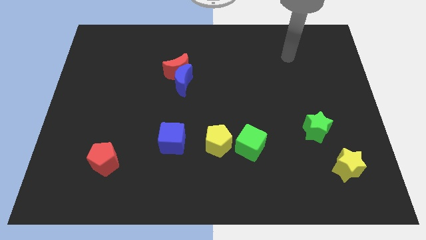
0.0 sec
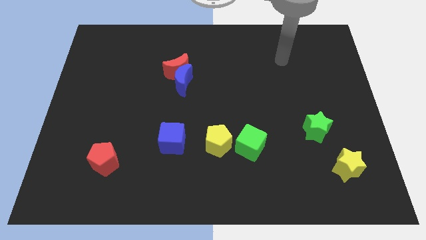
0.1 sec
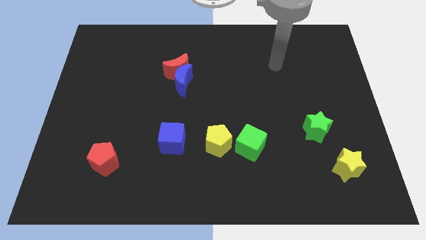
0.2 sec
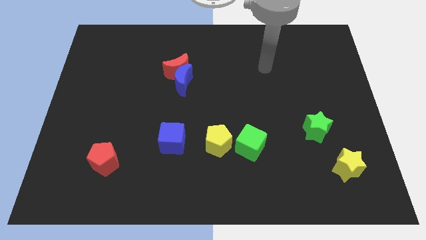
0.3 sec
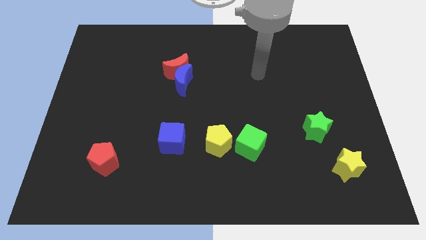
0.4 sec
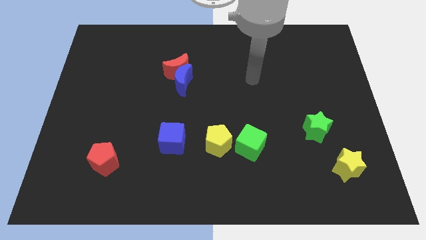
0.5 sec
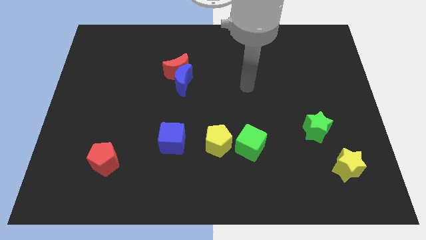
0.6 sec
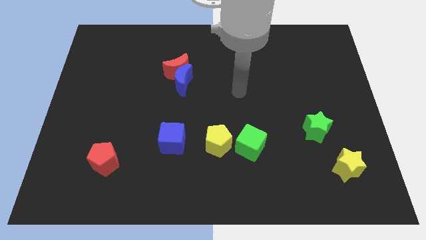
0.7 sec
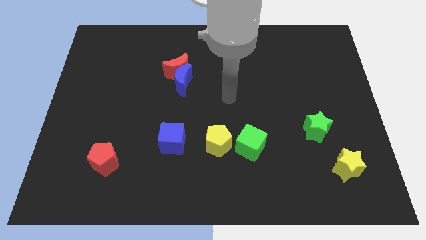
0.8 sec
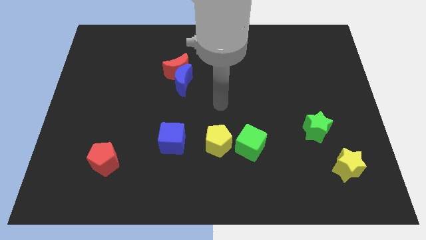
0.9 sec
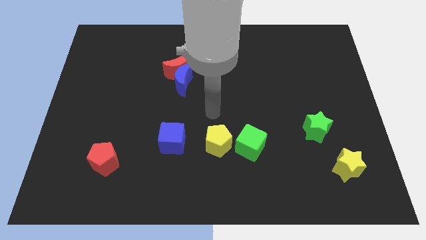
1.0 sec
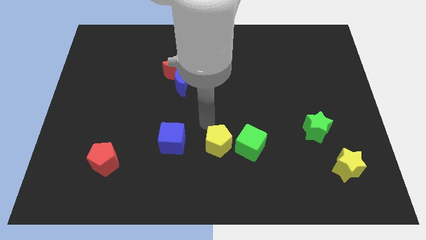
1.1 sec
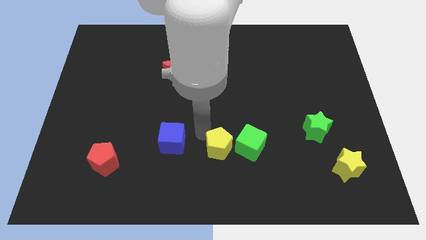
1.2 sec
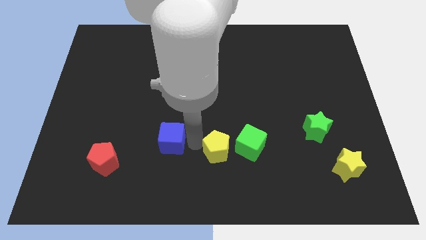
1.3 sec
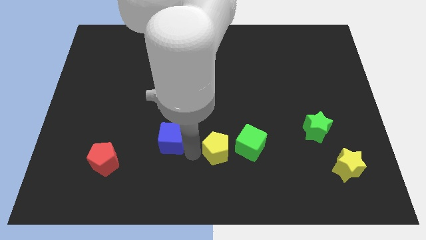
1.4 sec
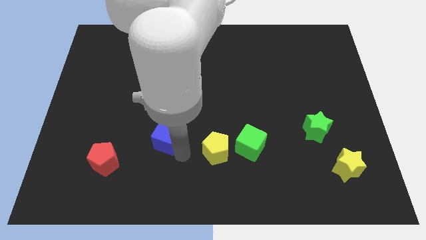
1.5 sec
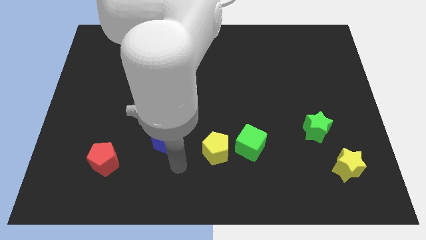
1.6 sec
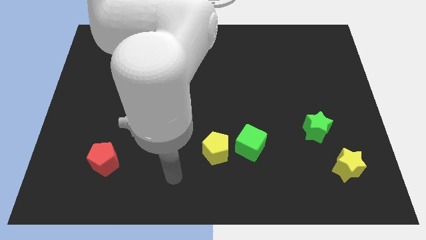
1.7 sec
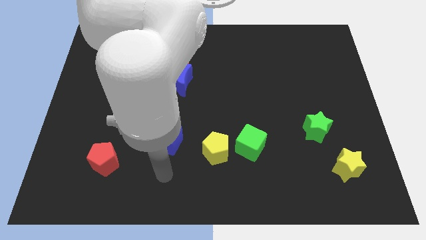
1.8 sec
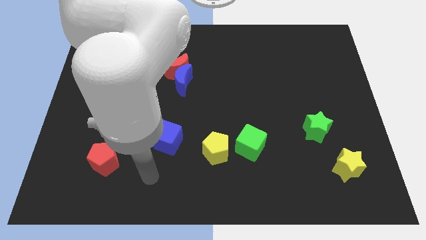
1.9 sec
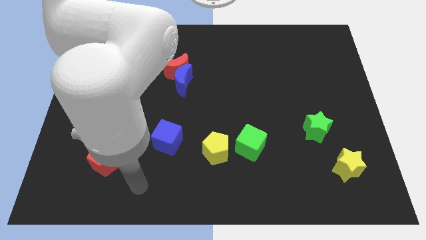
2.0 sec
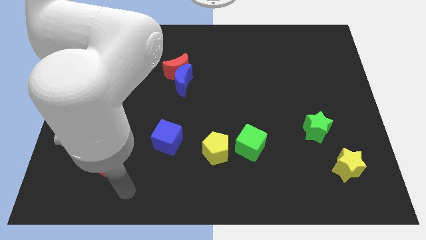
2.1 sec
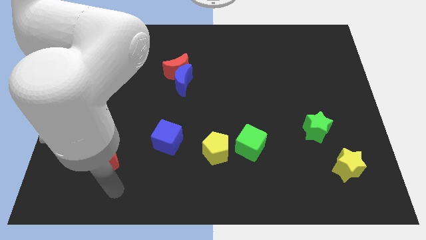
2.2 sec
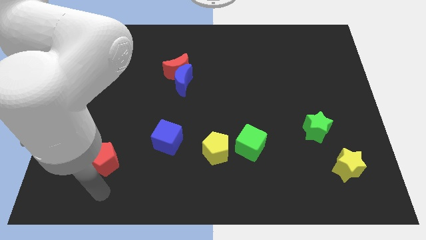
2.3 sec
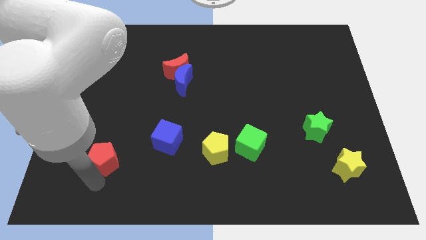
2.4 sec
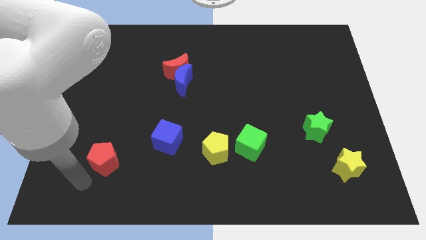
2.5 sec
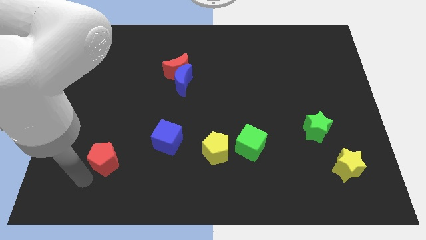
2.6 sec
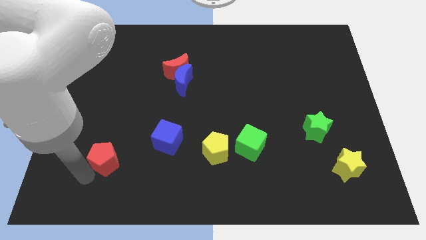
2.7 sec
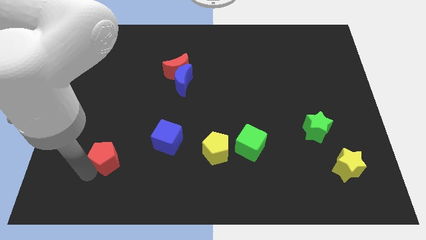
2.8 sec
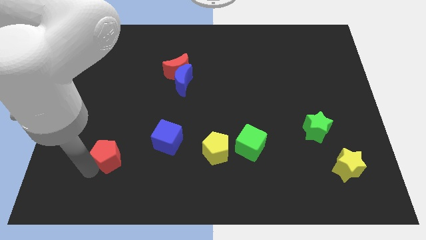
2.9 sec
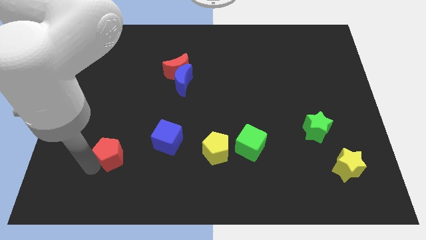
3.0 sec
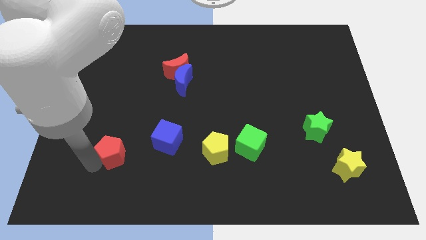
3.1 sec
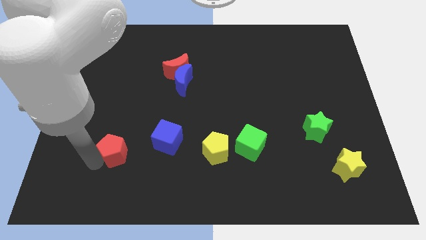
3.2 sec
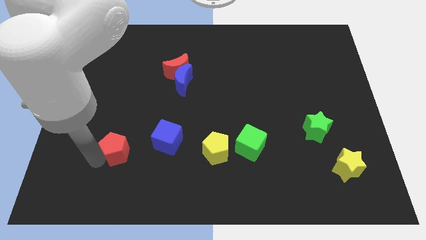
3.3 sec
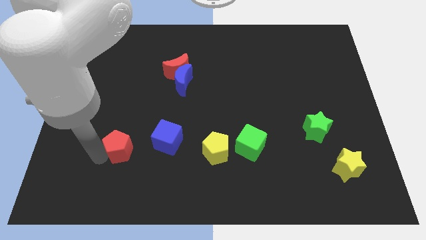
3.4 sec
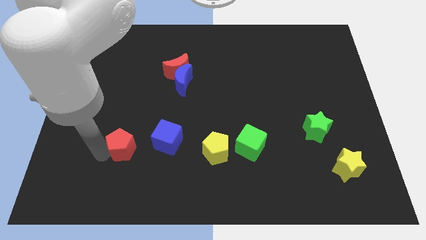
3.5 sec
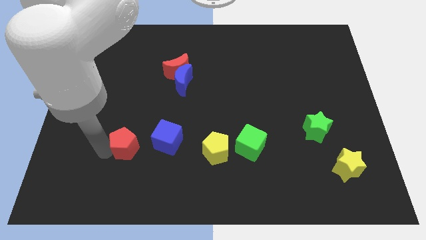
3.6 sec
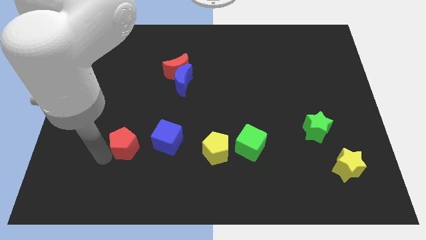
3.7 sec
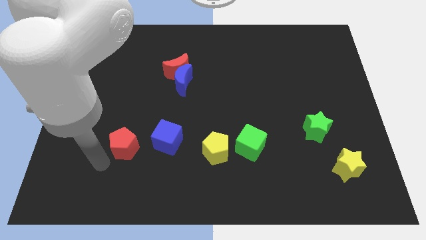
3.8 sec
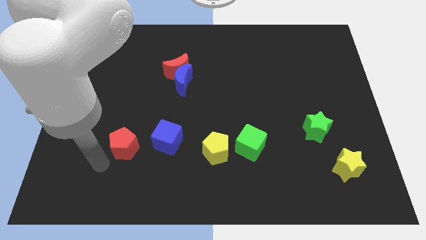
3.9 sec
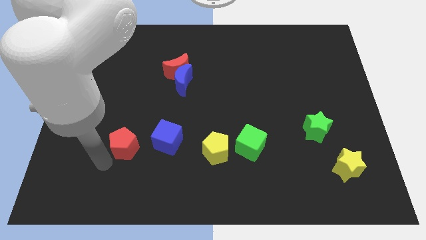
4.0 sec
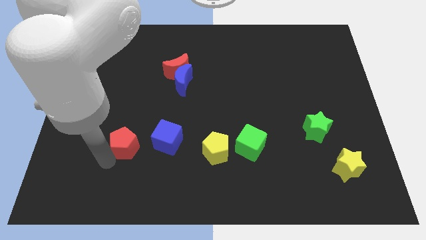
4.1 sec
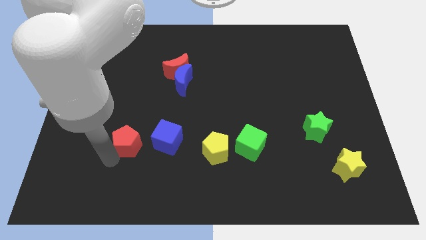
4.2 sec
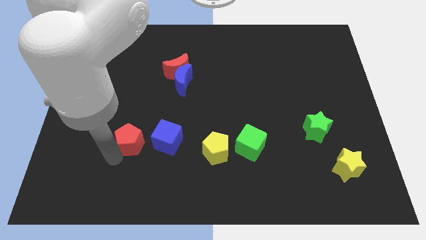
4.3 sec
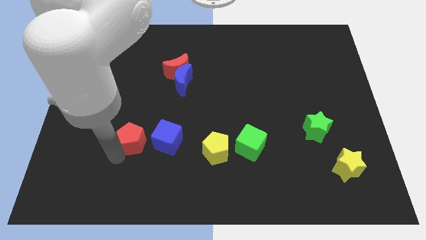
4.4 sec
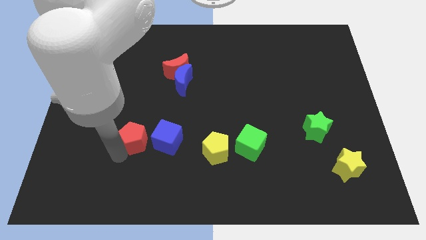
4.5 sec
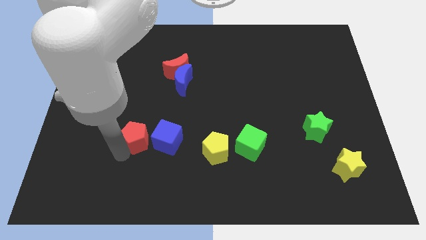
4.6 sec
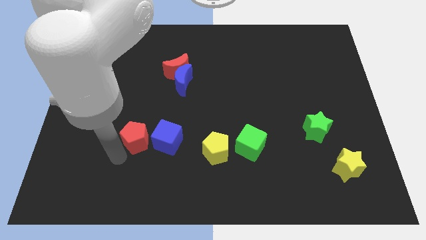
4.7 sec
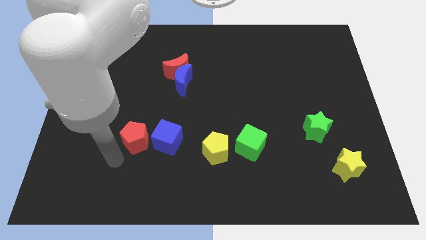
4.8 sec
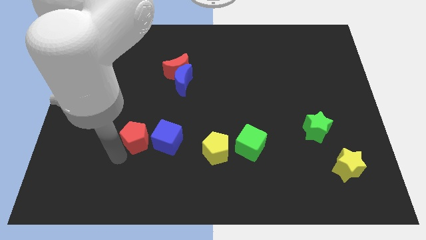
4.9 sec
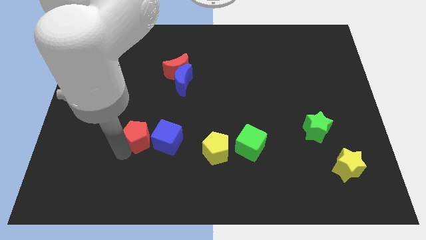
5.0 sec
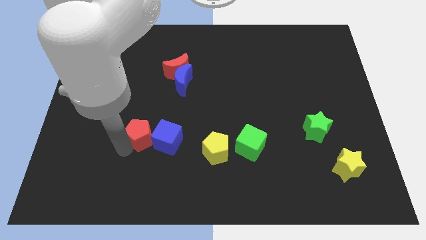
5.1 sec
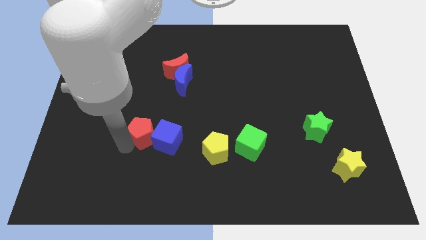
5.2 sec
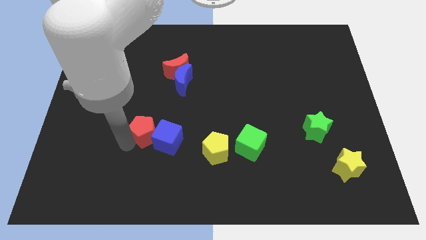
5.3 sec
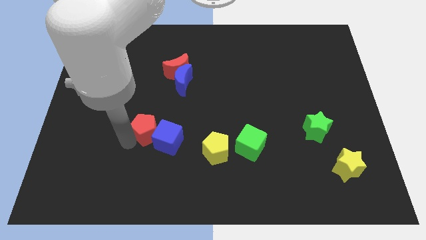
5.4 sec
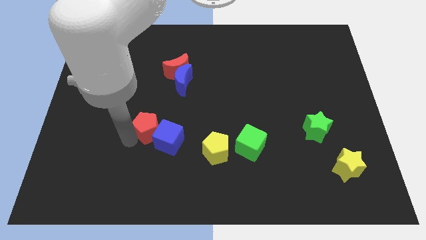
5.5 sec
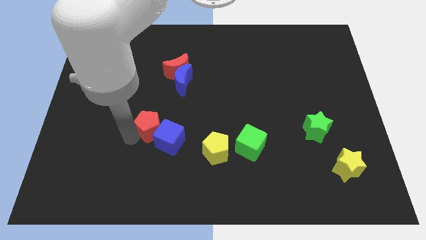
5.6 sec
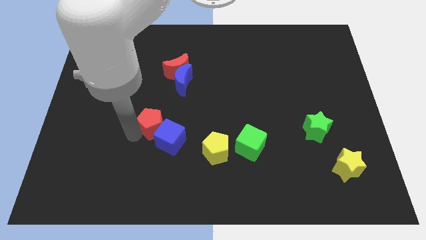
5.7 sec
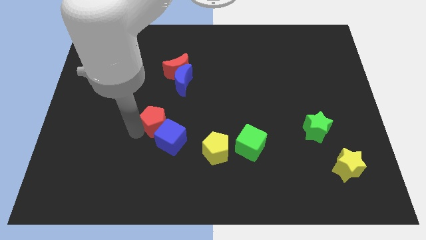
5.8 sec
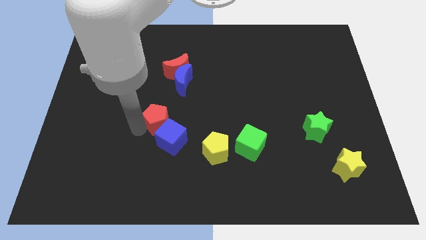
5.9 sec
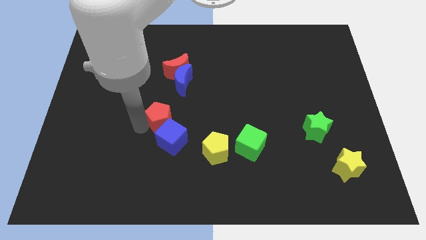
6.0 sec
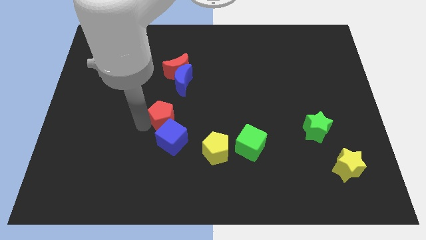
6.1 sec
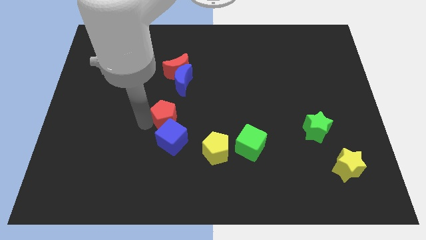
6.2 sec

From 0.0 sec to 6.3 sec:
push the red pentagon to the middle
